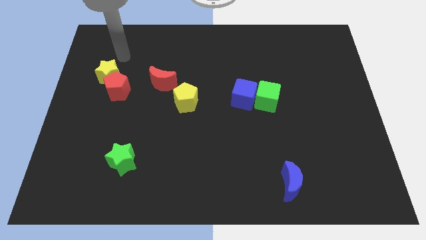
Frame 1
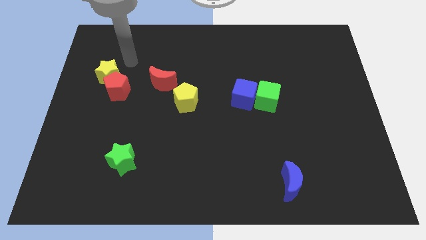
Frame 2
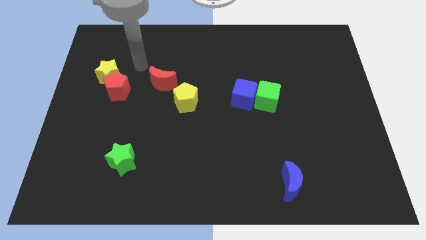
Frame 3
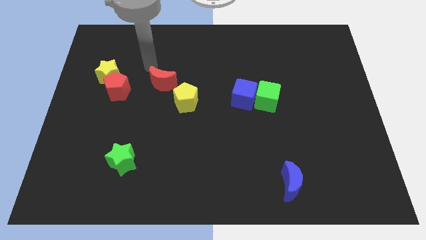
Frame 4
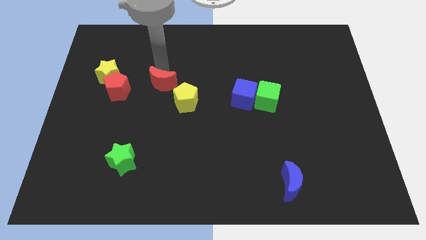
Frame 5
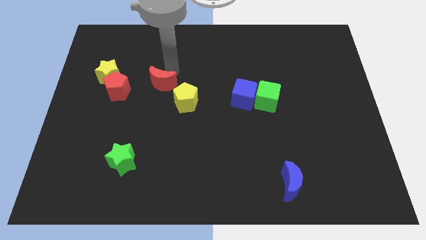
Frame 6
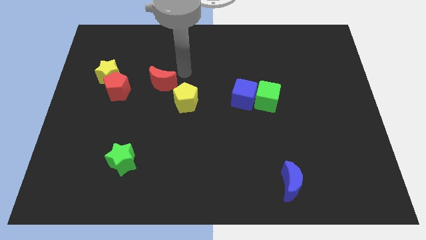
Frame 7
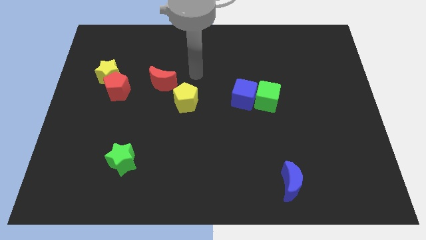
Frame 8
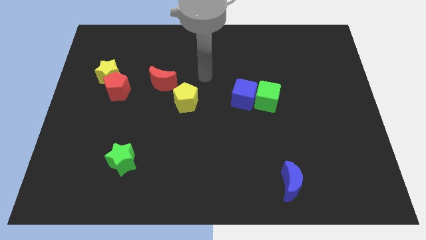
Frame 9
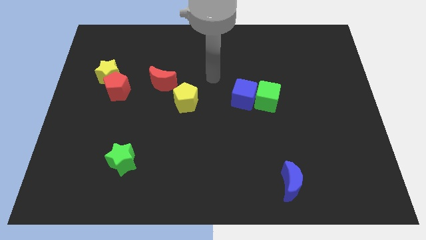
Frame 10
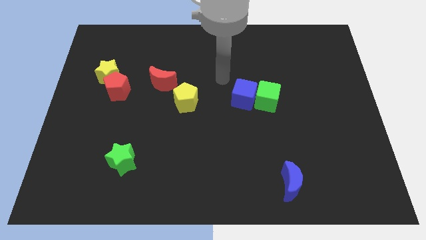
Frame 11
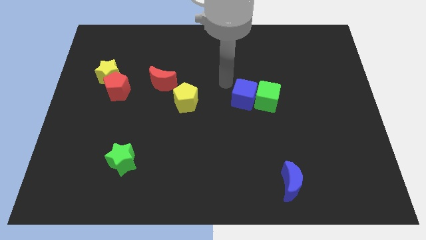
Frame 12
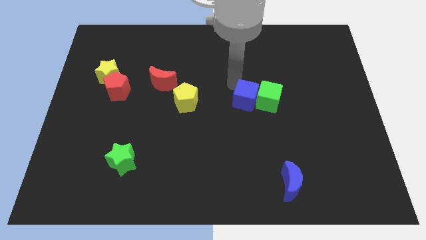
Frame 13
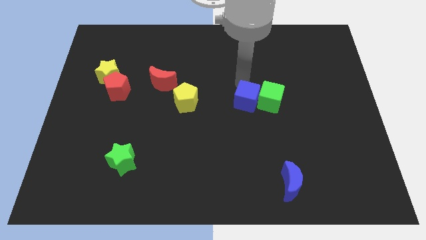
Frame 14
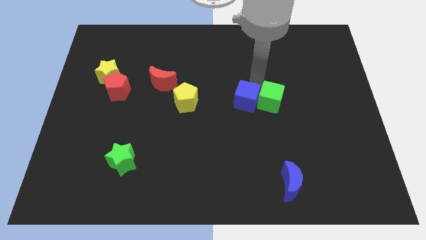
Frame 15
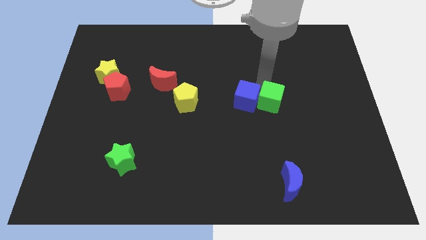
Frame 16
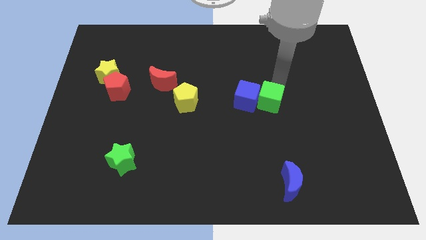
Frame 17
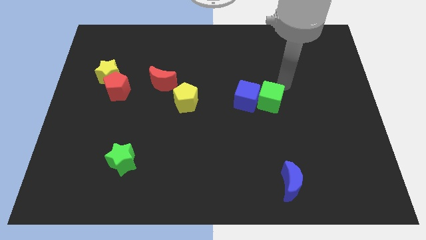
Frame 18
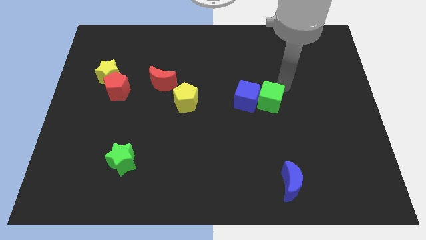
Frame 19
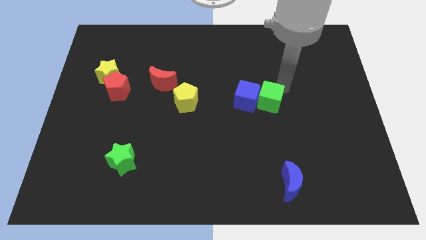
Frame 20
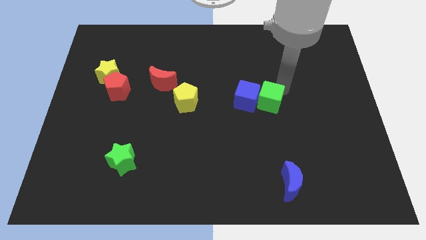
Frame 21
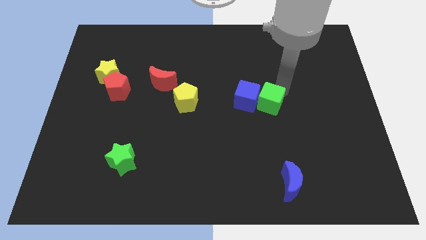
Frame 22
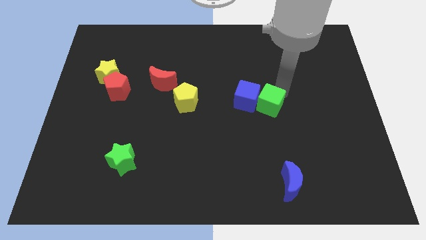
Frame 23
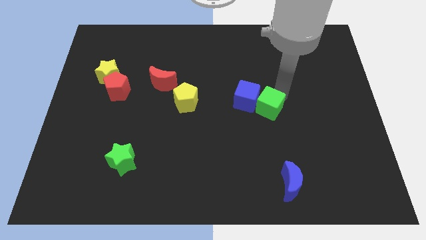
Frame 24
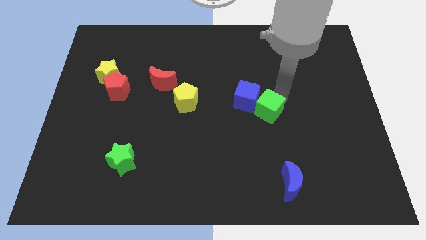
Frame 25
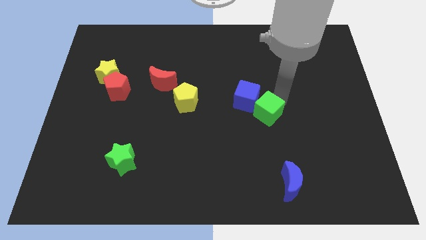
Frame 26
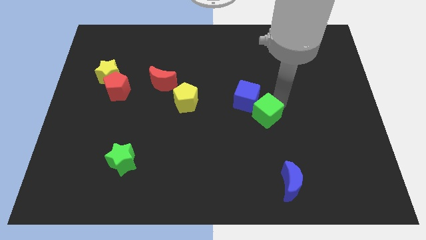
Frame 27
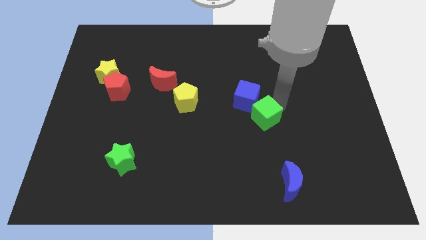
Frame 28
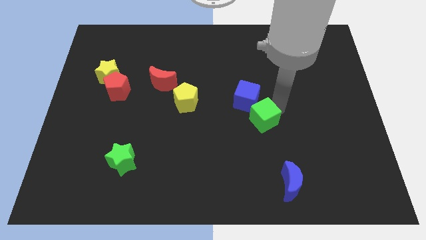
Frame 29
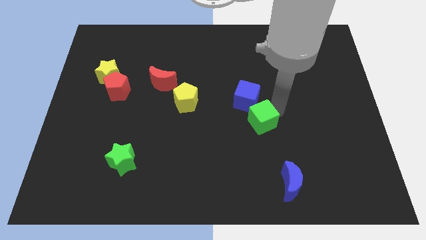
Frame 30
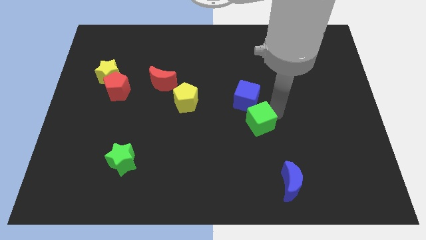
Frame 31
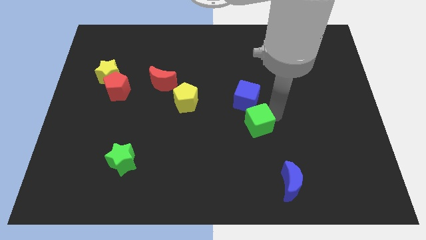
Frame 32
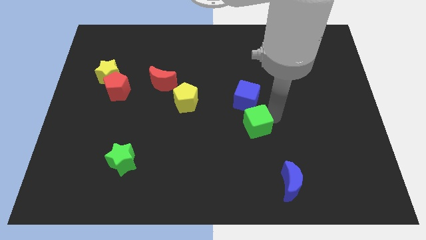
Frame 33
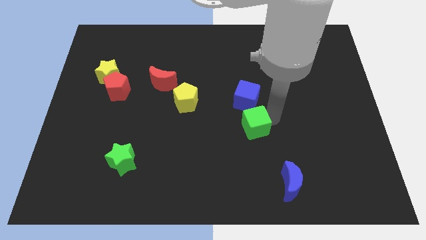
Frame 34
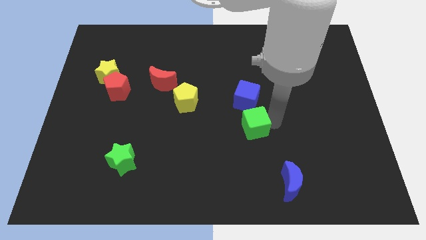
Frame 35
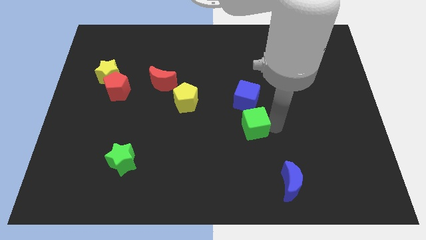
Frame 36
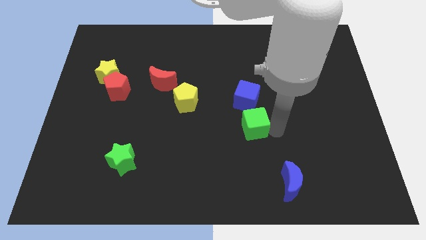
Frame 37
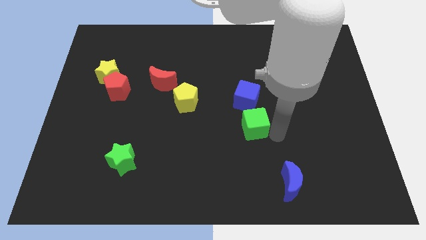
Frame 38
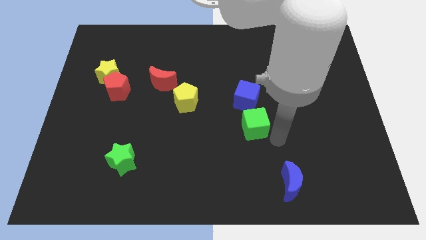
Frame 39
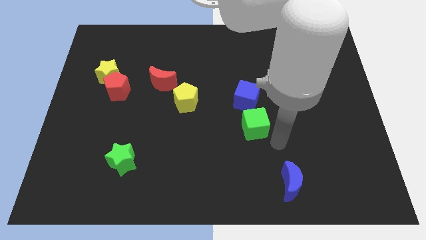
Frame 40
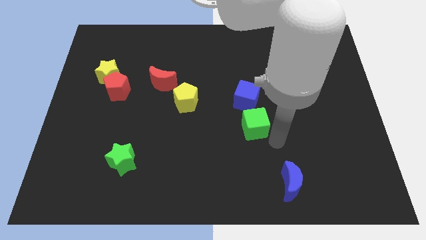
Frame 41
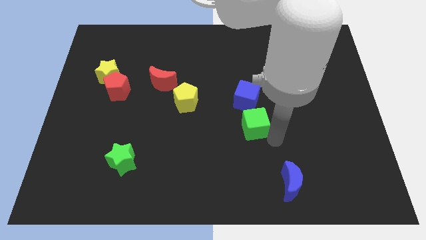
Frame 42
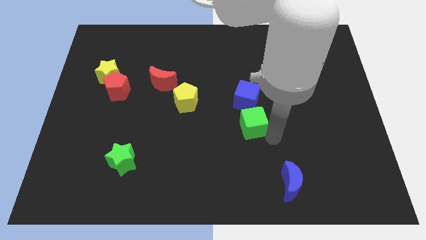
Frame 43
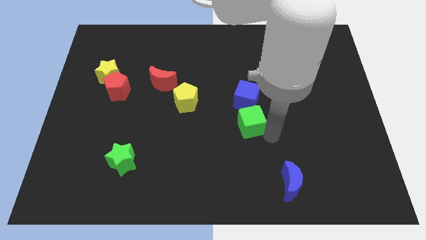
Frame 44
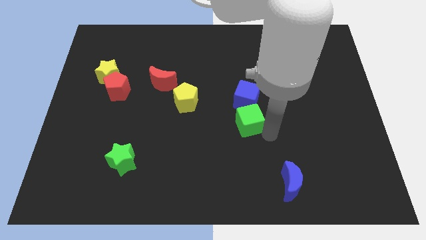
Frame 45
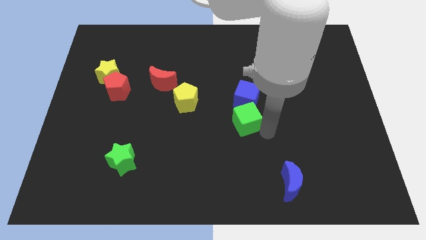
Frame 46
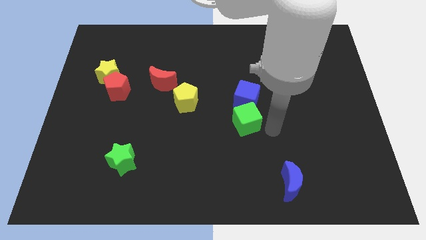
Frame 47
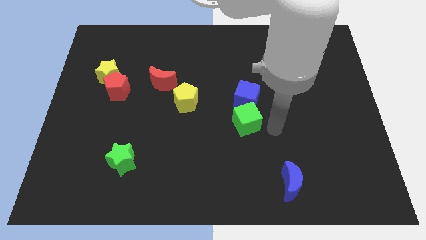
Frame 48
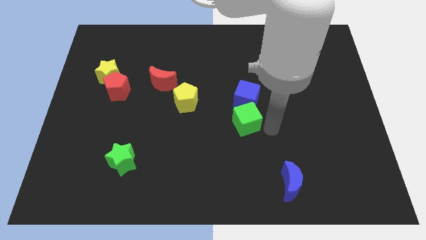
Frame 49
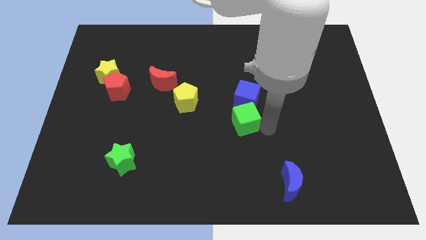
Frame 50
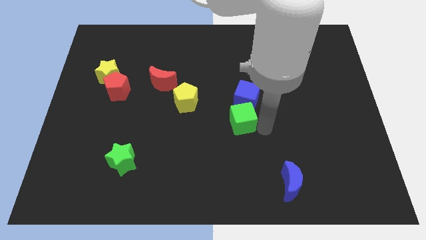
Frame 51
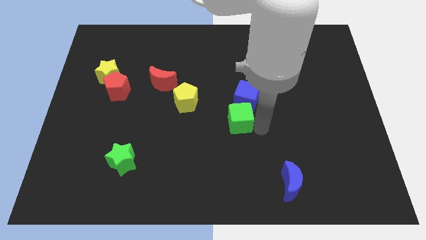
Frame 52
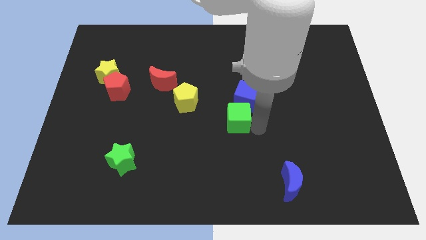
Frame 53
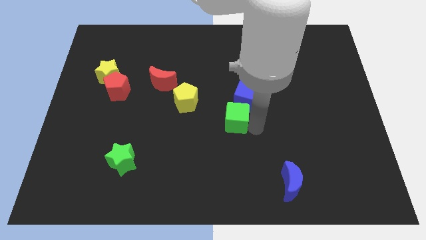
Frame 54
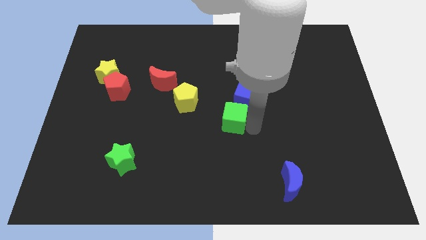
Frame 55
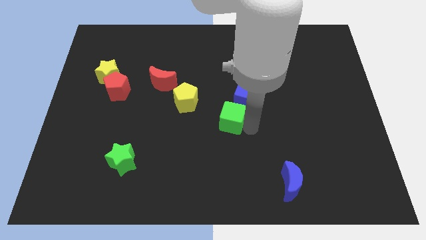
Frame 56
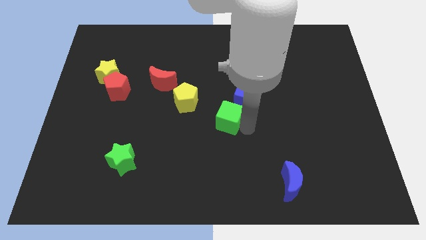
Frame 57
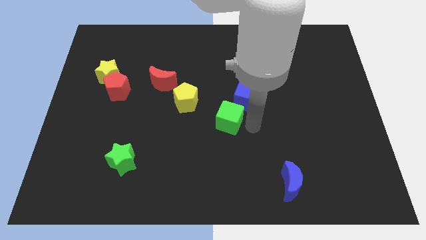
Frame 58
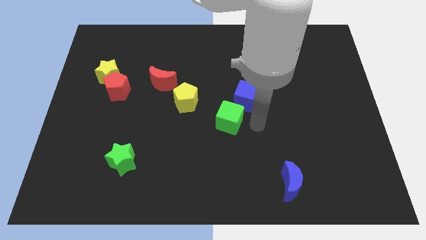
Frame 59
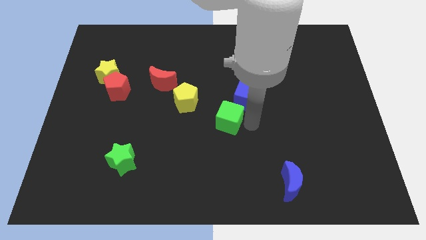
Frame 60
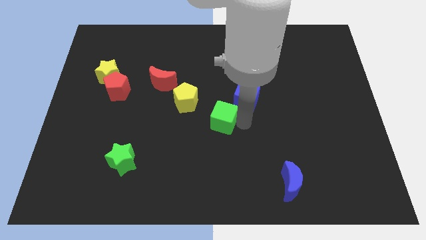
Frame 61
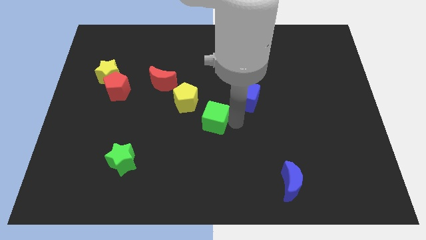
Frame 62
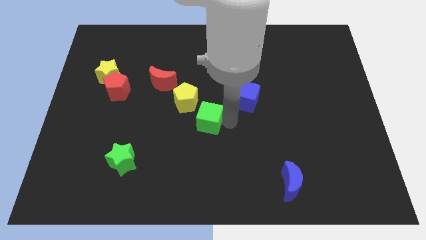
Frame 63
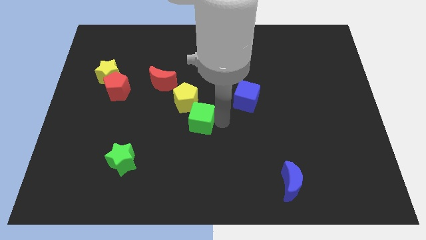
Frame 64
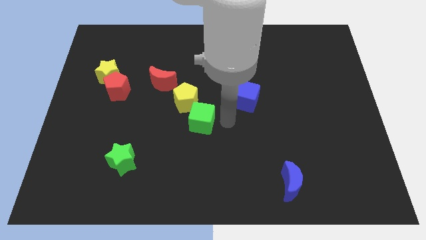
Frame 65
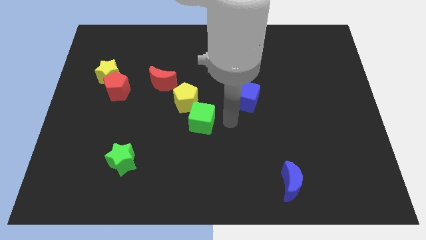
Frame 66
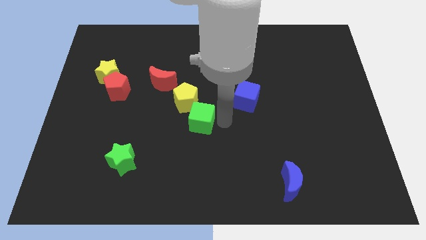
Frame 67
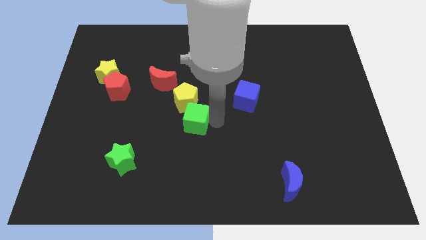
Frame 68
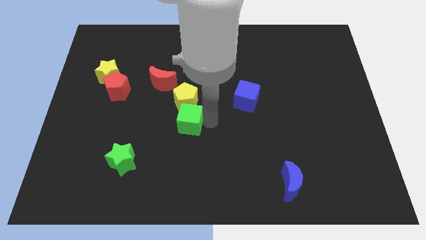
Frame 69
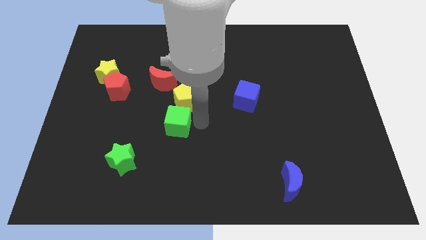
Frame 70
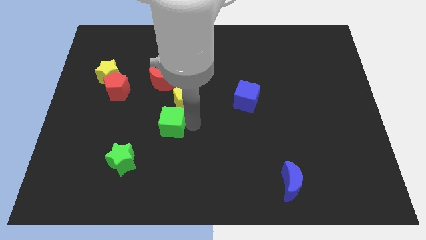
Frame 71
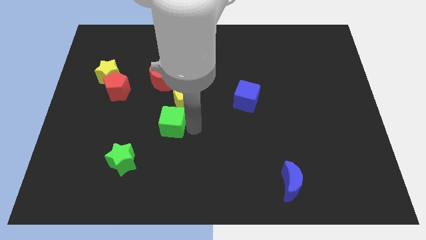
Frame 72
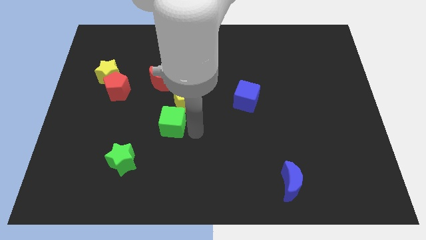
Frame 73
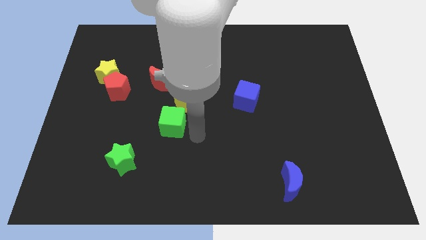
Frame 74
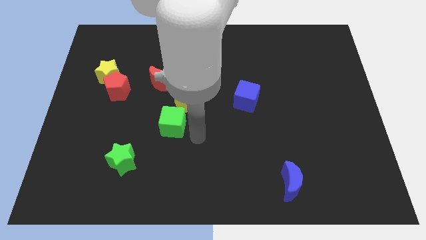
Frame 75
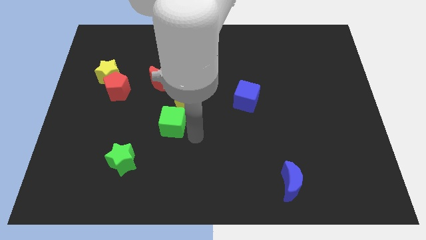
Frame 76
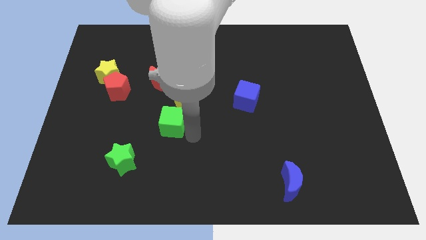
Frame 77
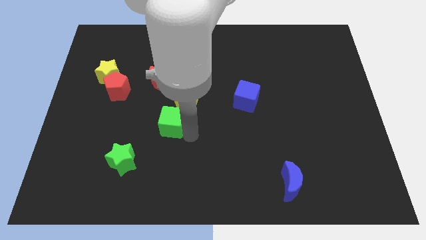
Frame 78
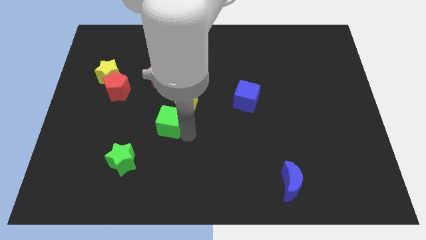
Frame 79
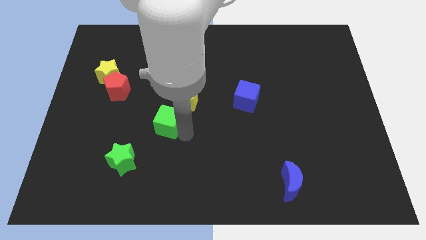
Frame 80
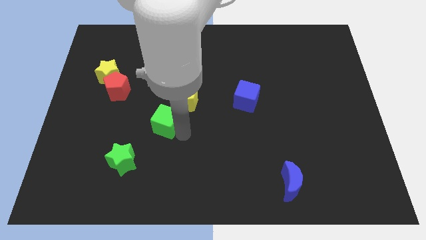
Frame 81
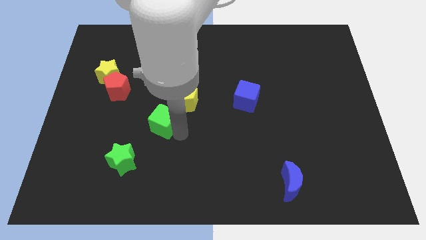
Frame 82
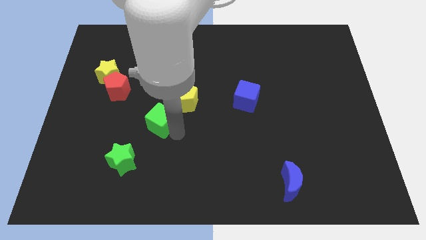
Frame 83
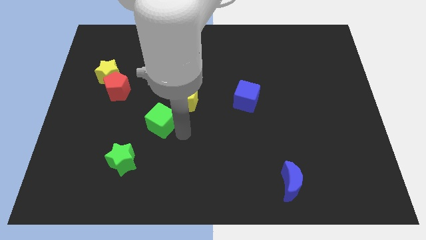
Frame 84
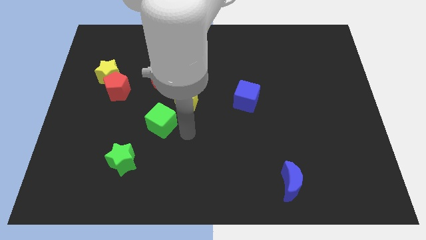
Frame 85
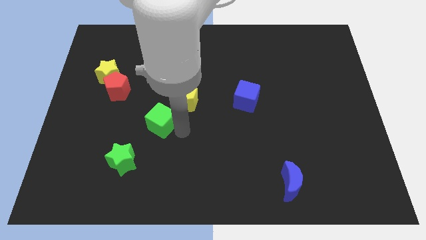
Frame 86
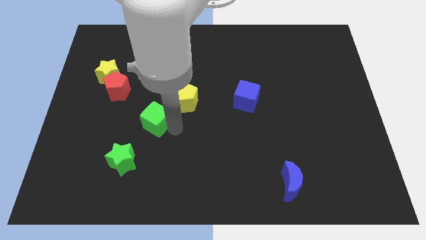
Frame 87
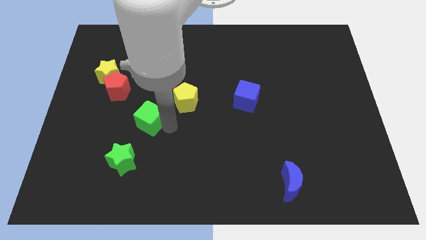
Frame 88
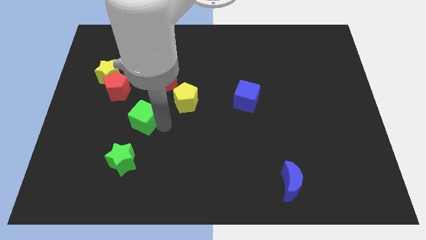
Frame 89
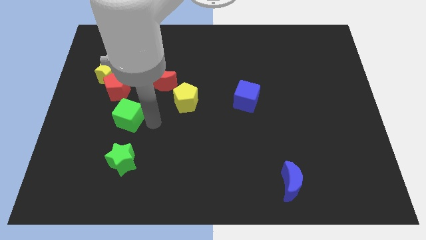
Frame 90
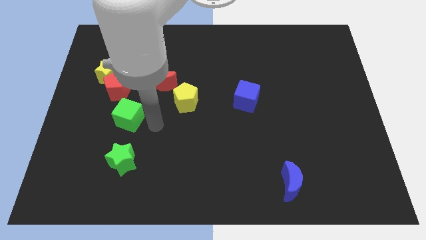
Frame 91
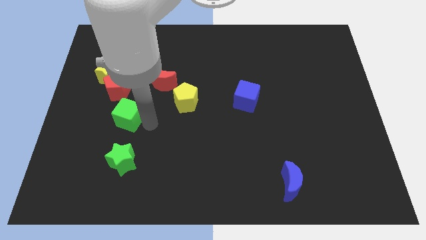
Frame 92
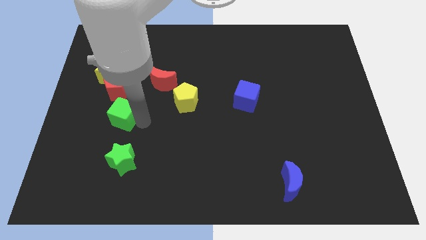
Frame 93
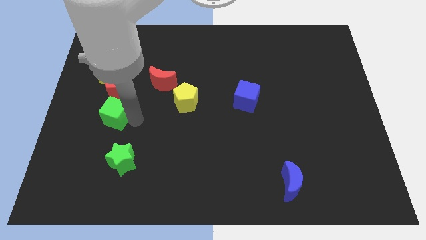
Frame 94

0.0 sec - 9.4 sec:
push the green cube to the bottom of the yellow star
